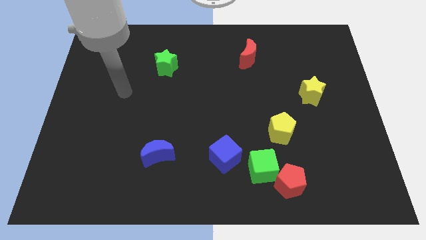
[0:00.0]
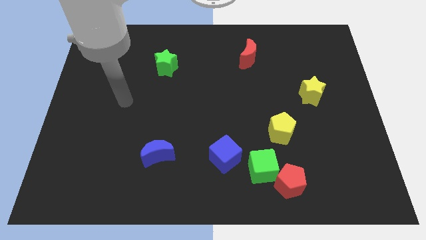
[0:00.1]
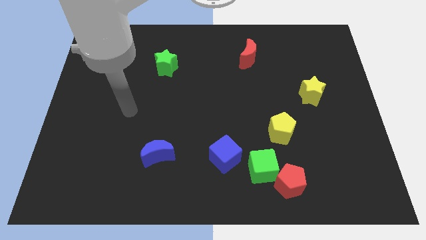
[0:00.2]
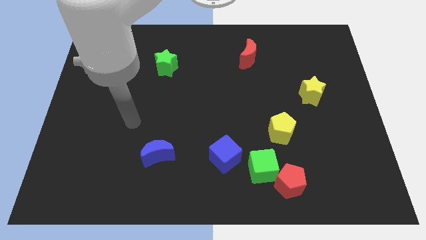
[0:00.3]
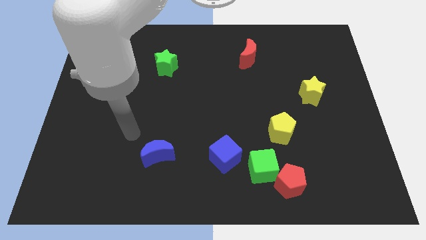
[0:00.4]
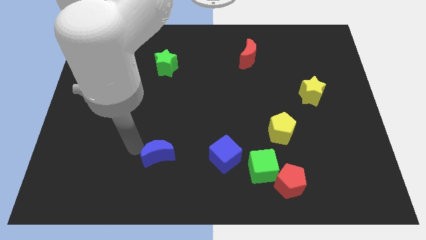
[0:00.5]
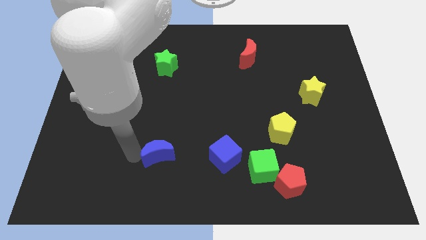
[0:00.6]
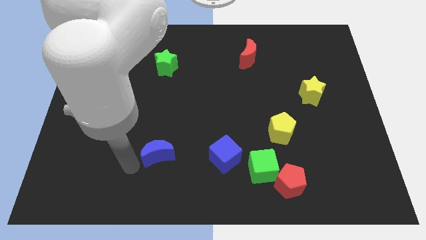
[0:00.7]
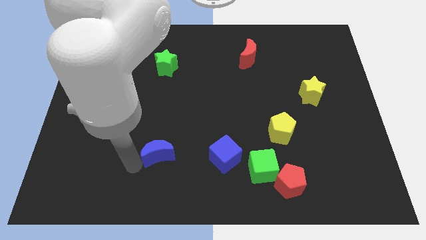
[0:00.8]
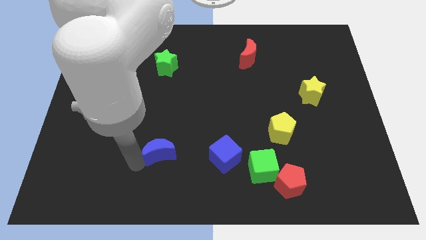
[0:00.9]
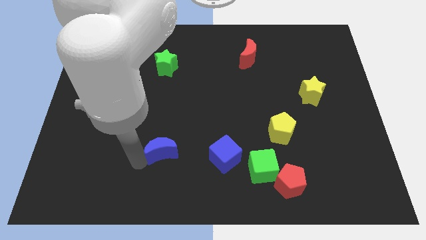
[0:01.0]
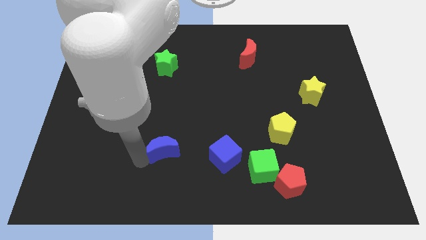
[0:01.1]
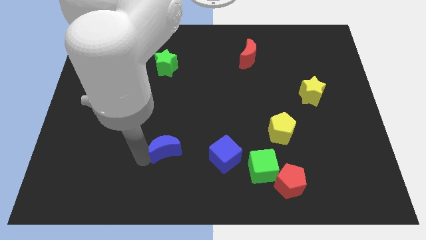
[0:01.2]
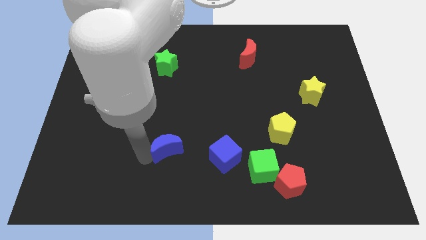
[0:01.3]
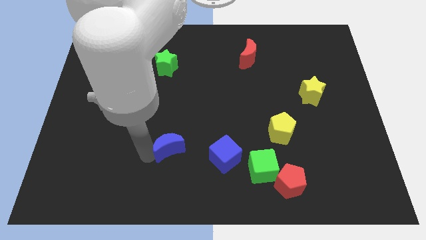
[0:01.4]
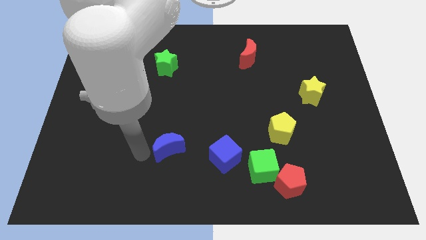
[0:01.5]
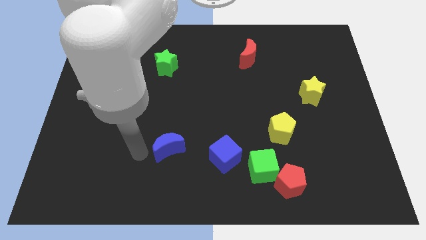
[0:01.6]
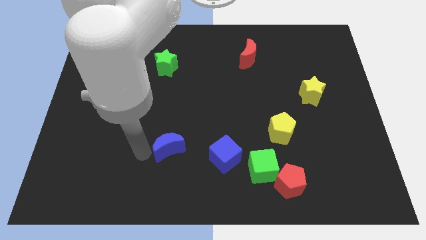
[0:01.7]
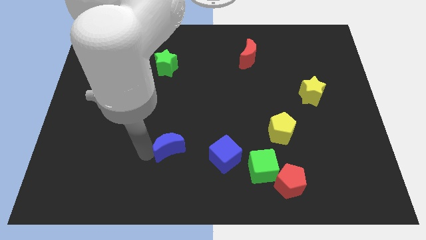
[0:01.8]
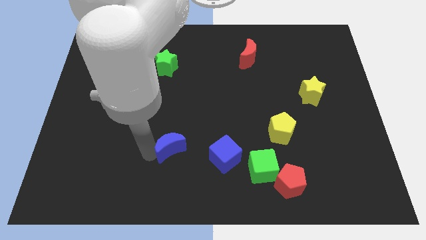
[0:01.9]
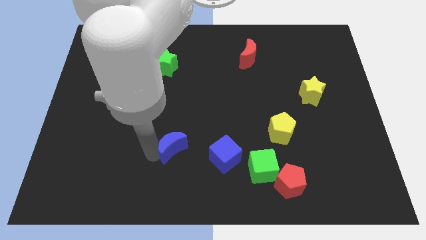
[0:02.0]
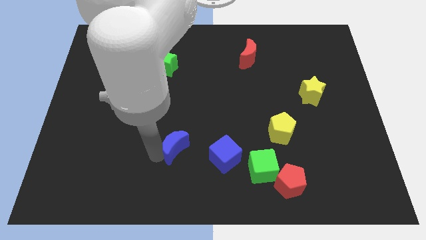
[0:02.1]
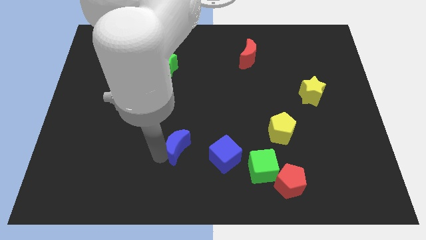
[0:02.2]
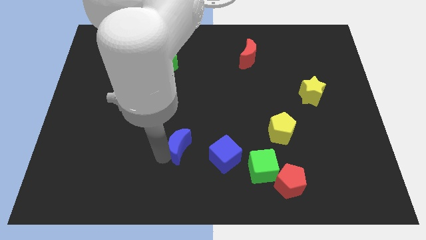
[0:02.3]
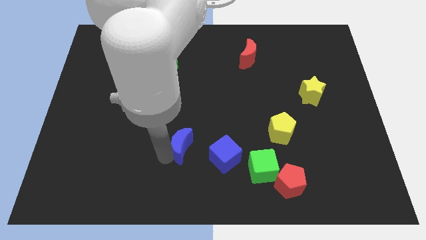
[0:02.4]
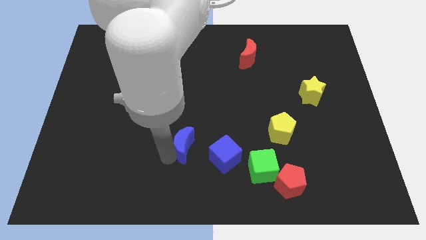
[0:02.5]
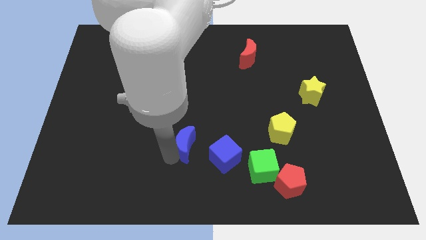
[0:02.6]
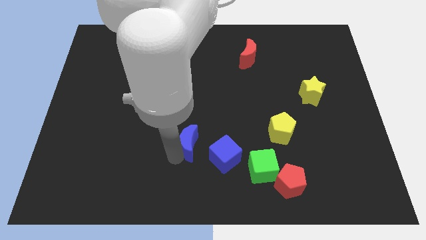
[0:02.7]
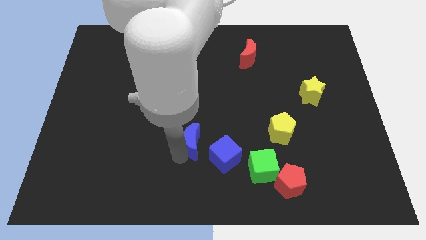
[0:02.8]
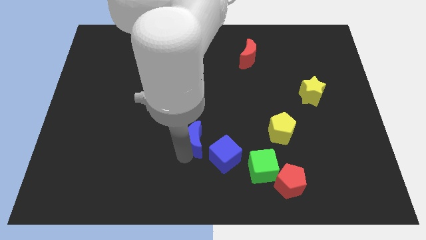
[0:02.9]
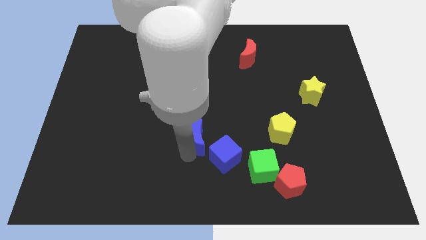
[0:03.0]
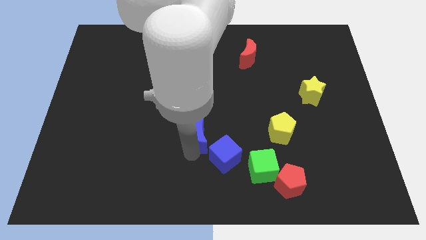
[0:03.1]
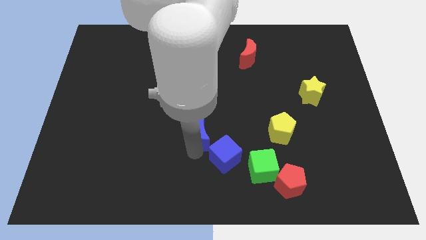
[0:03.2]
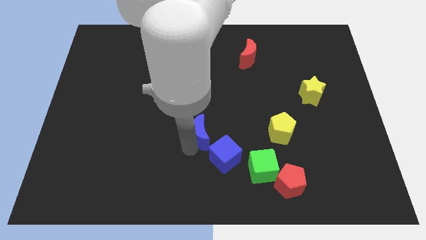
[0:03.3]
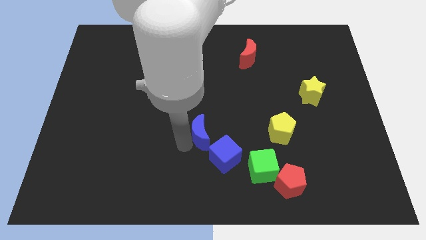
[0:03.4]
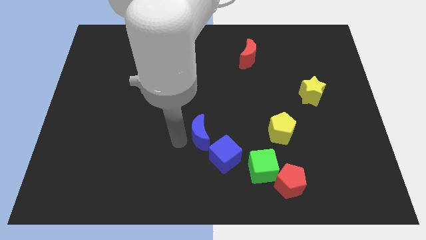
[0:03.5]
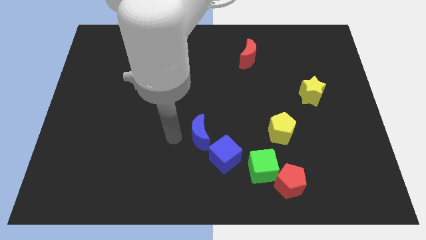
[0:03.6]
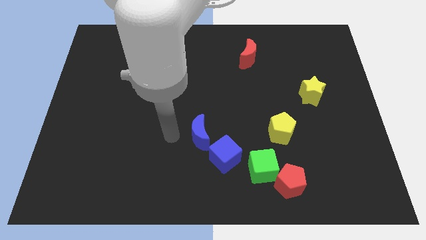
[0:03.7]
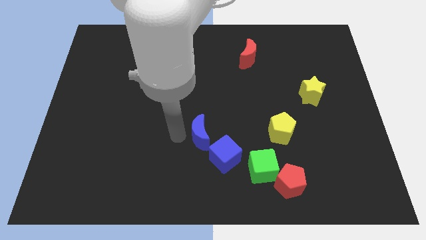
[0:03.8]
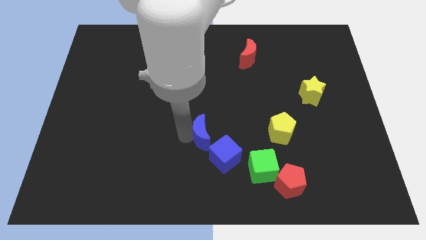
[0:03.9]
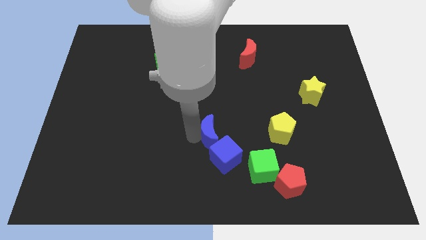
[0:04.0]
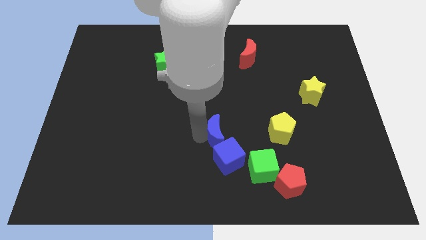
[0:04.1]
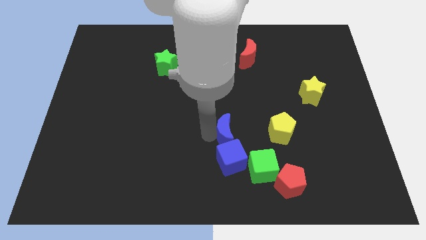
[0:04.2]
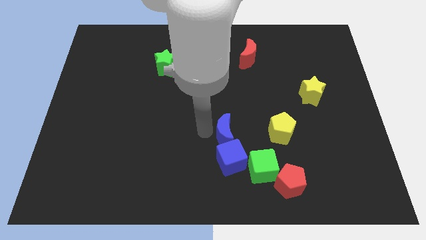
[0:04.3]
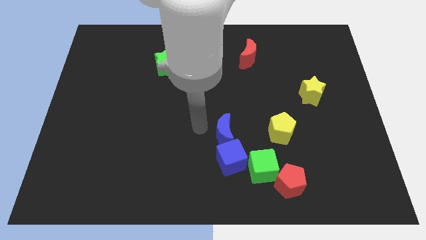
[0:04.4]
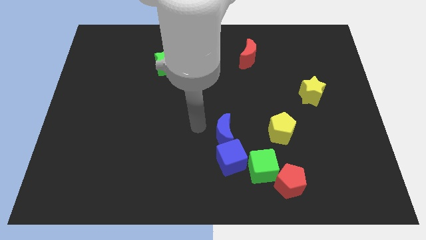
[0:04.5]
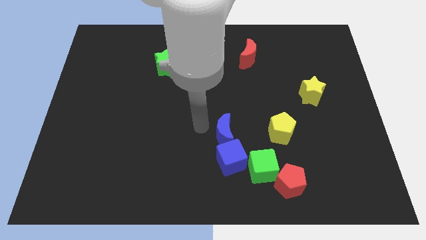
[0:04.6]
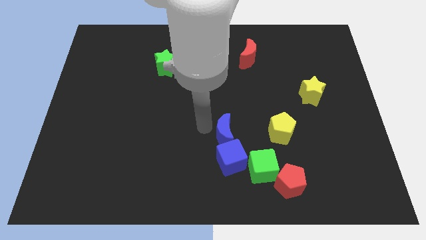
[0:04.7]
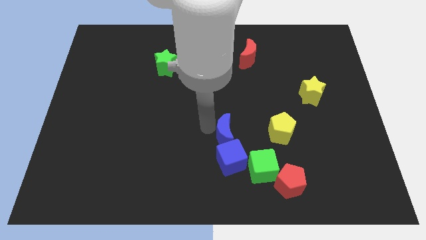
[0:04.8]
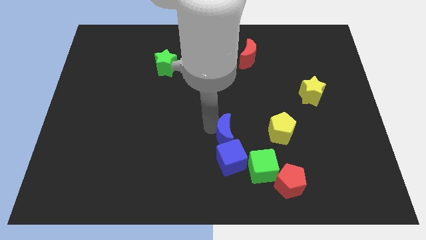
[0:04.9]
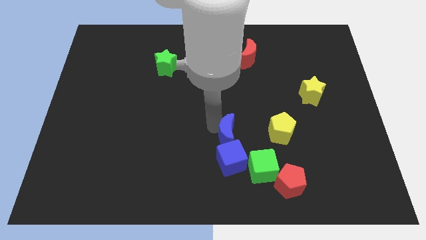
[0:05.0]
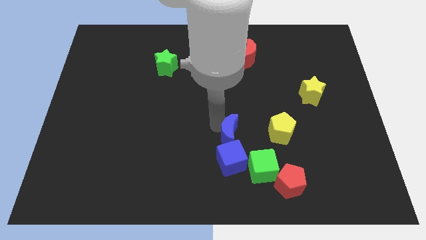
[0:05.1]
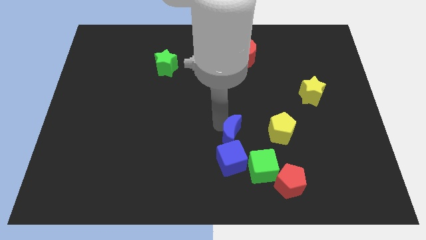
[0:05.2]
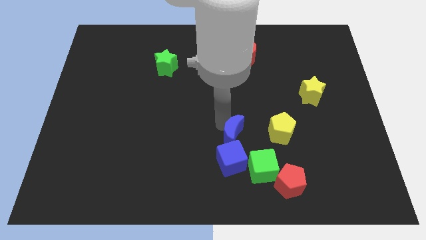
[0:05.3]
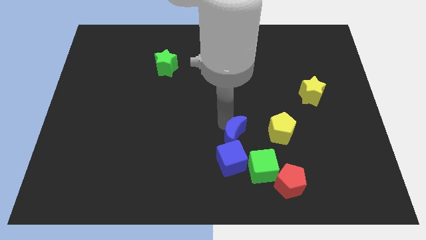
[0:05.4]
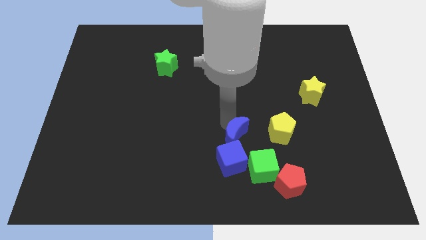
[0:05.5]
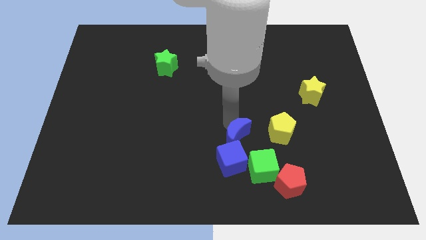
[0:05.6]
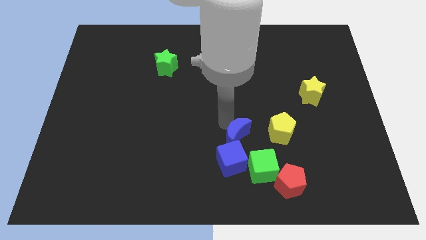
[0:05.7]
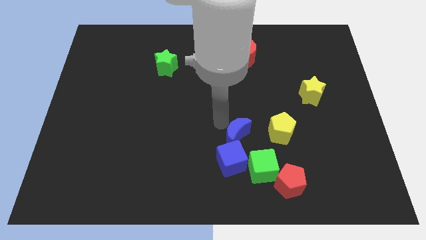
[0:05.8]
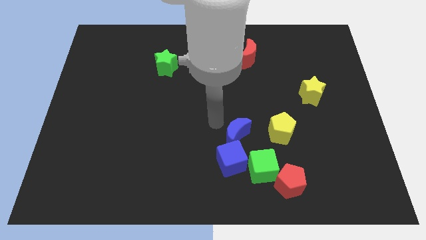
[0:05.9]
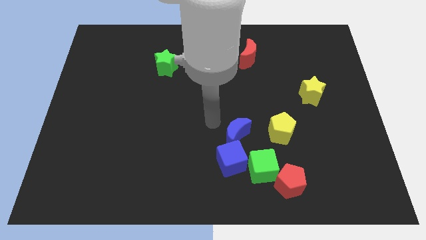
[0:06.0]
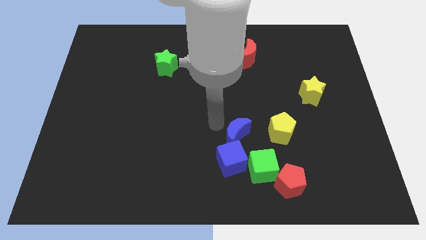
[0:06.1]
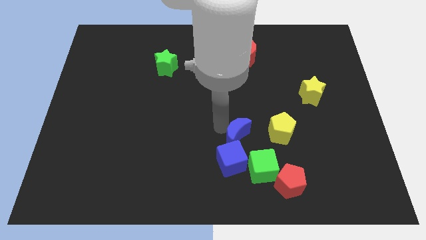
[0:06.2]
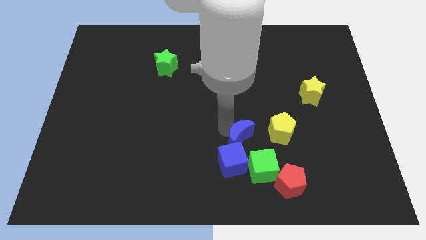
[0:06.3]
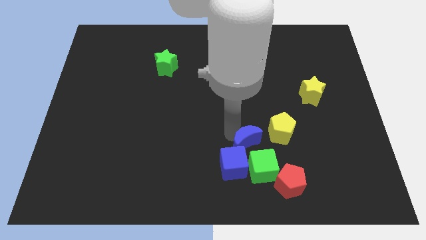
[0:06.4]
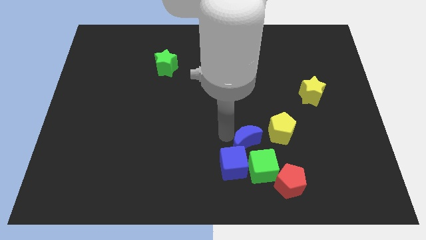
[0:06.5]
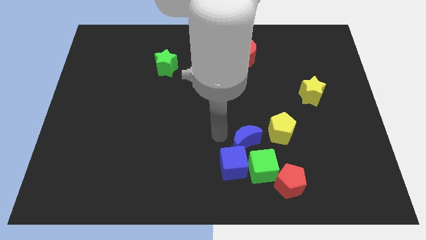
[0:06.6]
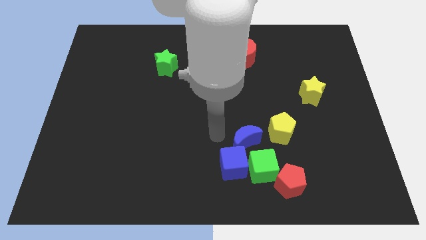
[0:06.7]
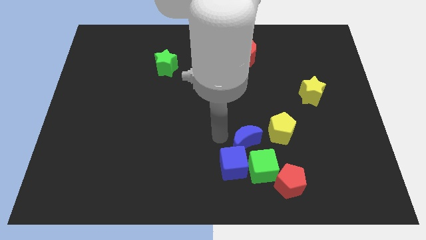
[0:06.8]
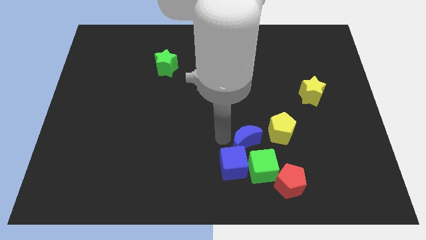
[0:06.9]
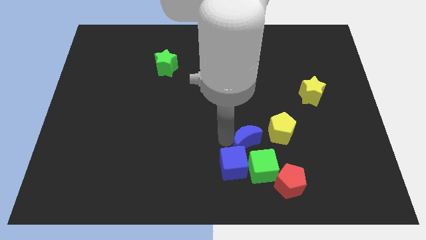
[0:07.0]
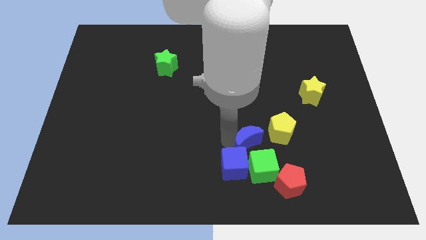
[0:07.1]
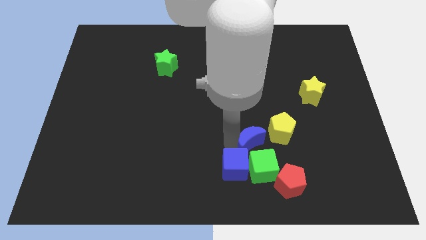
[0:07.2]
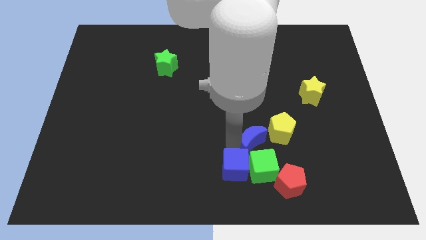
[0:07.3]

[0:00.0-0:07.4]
move the blue moon right

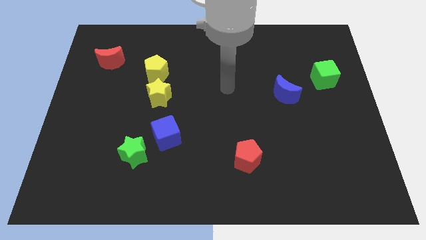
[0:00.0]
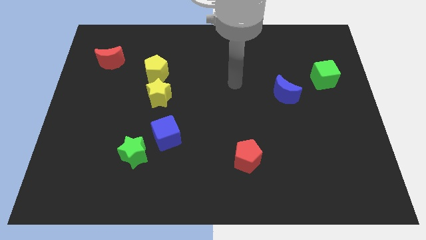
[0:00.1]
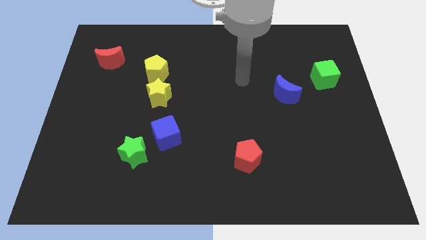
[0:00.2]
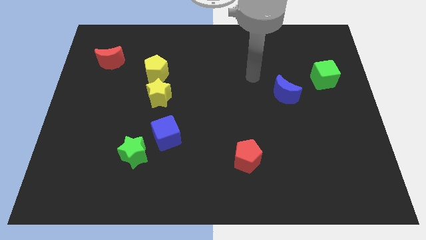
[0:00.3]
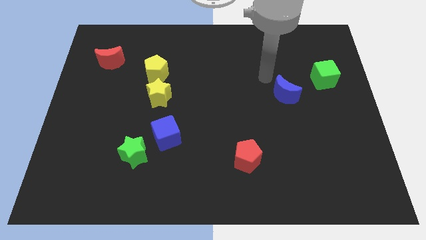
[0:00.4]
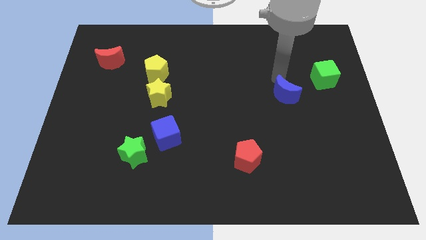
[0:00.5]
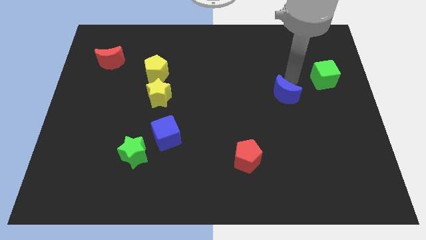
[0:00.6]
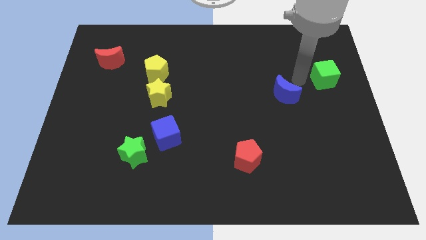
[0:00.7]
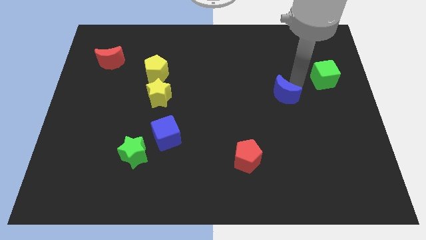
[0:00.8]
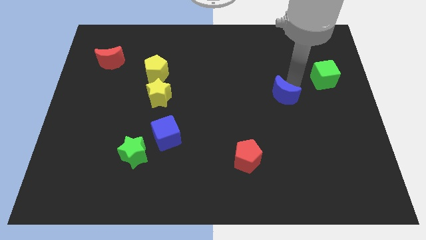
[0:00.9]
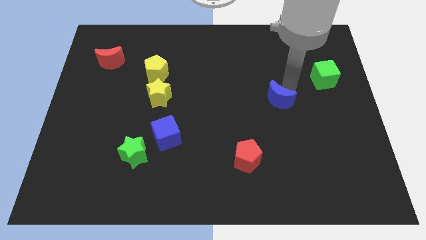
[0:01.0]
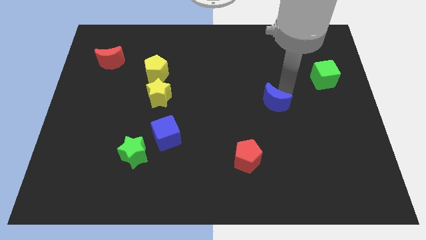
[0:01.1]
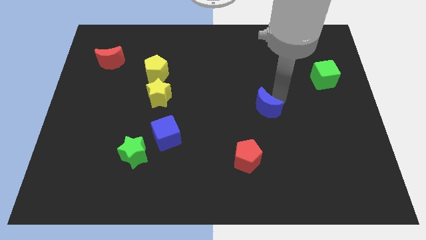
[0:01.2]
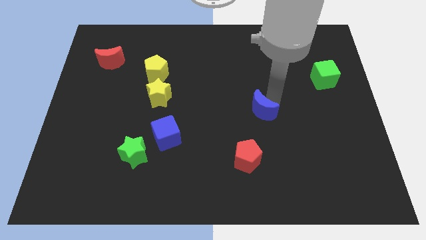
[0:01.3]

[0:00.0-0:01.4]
slightly move the blue moon down and to the left
